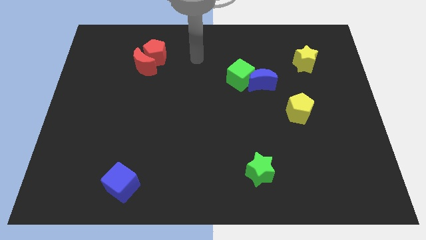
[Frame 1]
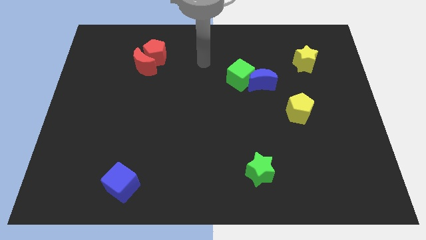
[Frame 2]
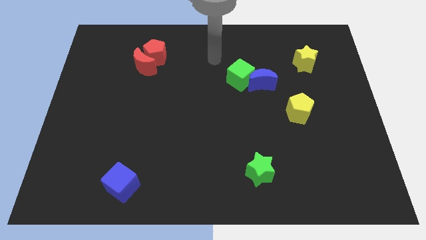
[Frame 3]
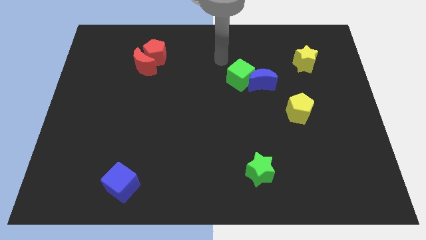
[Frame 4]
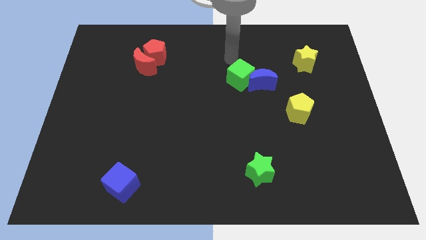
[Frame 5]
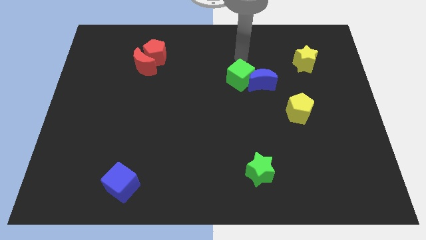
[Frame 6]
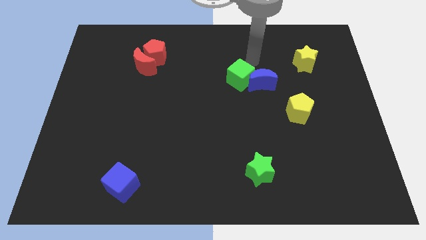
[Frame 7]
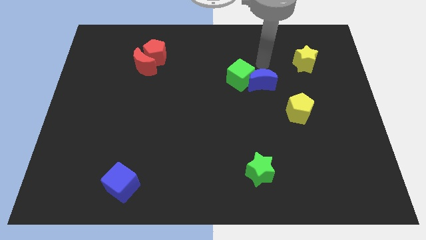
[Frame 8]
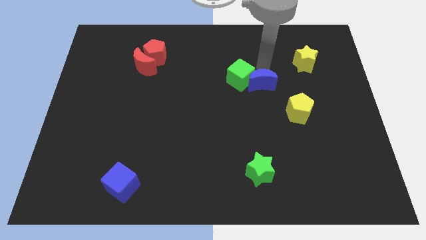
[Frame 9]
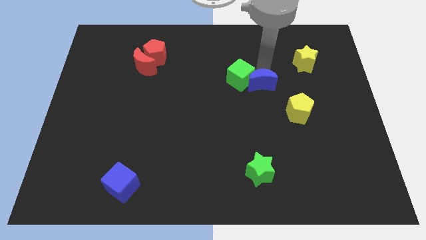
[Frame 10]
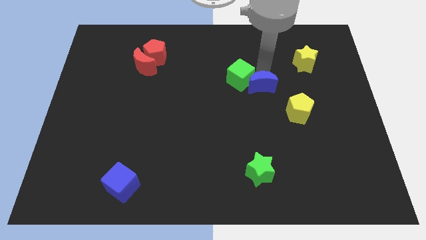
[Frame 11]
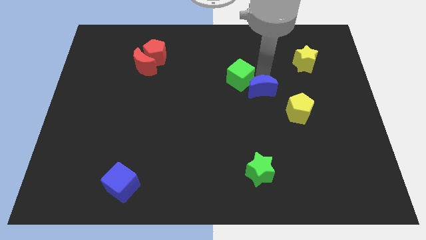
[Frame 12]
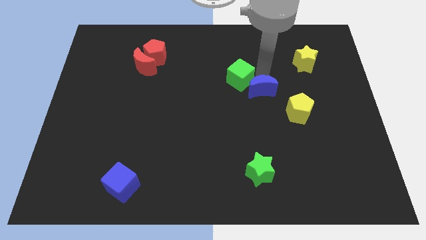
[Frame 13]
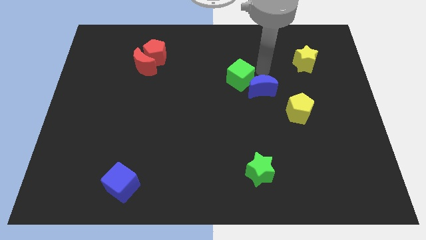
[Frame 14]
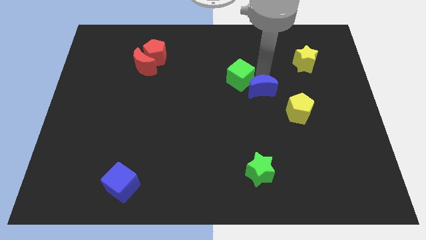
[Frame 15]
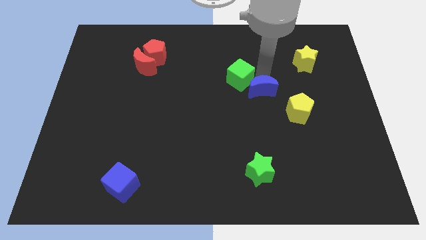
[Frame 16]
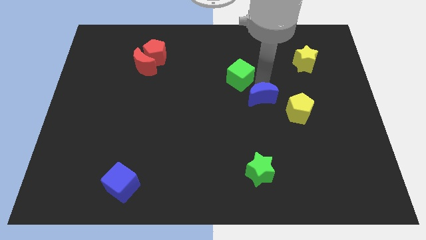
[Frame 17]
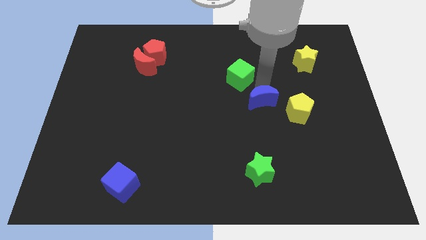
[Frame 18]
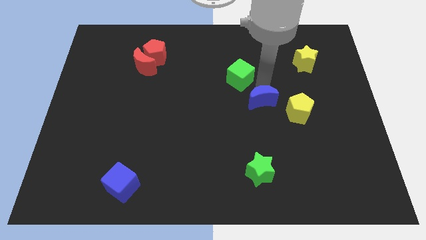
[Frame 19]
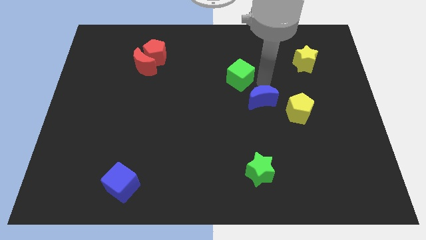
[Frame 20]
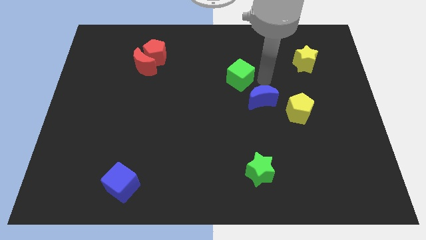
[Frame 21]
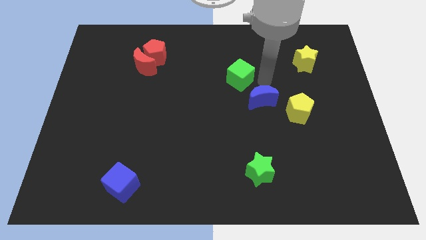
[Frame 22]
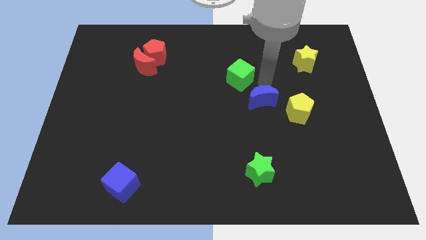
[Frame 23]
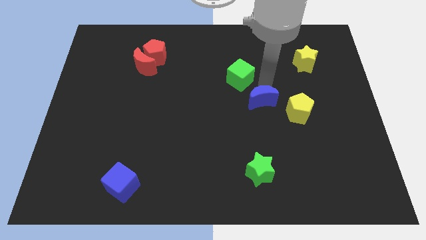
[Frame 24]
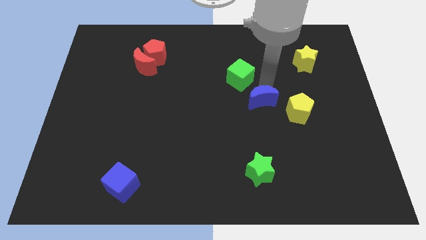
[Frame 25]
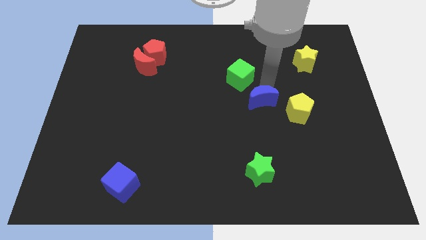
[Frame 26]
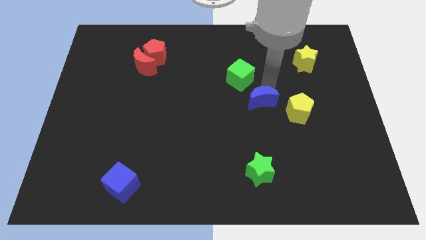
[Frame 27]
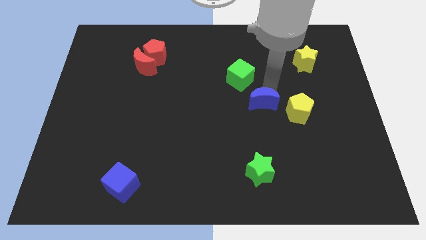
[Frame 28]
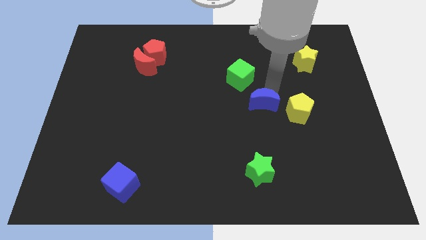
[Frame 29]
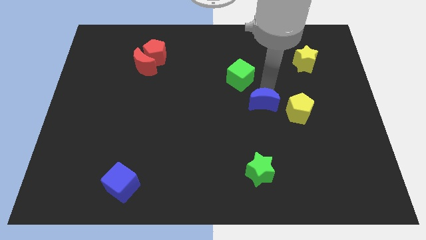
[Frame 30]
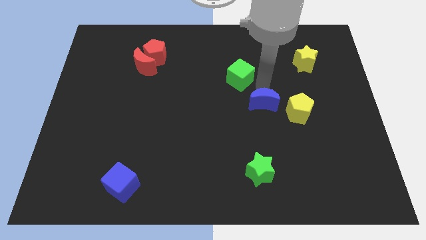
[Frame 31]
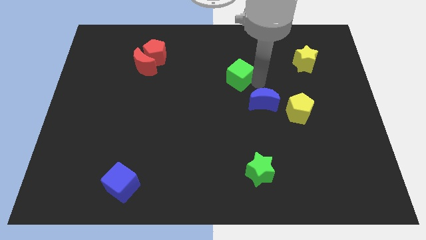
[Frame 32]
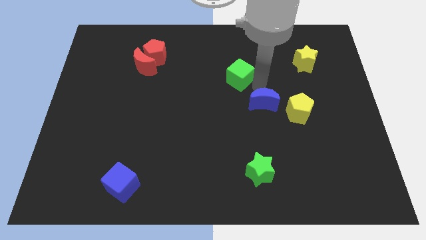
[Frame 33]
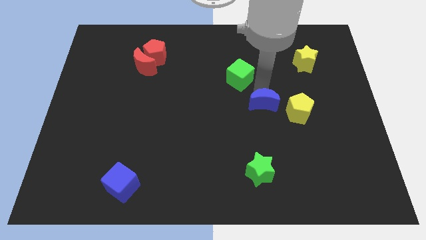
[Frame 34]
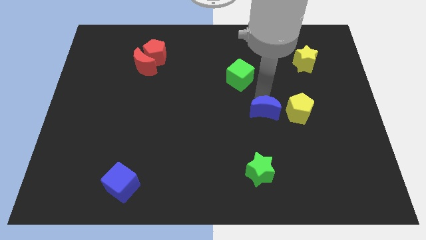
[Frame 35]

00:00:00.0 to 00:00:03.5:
slide the blue moon downwards somewhat

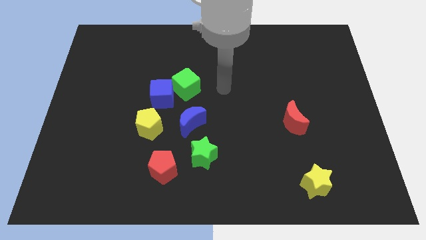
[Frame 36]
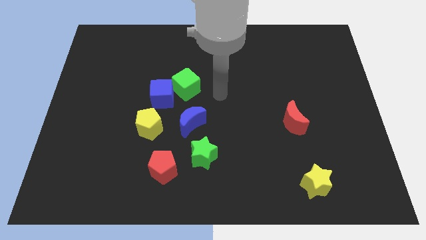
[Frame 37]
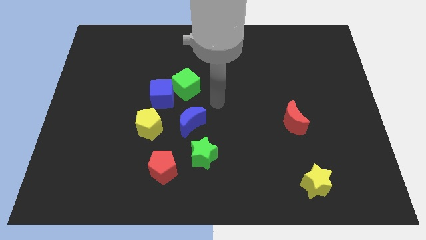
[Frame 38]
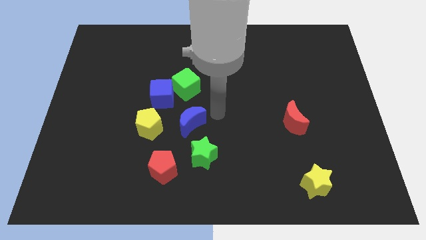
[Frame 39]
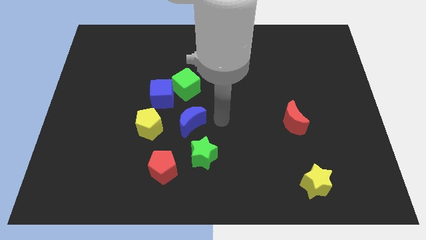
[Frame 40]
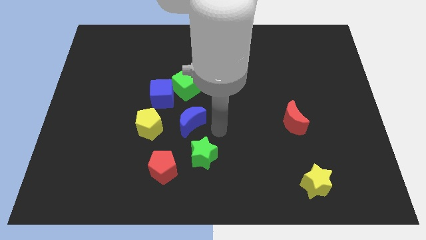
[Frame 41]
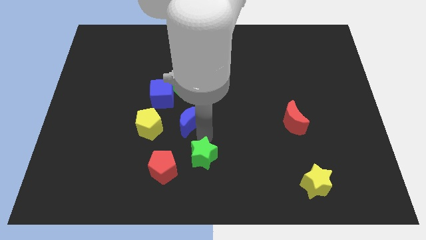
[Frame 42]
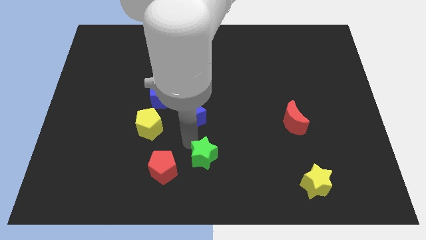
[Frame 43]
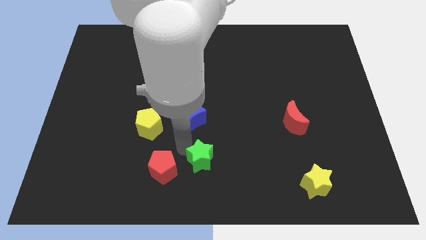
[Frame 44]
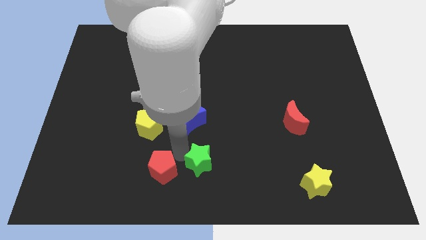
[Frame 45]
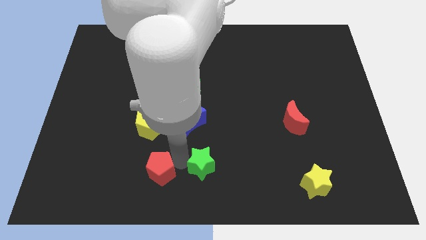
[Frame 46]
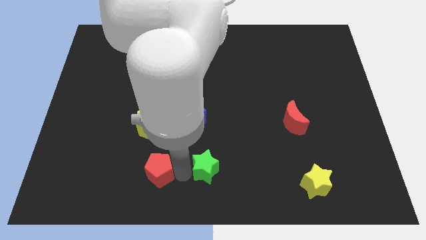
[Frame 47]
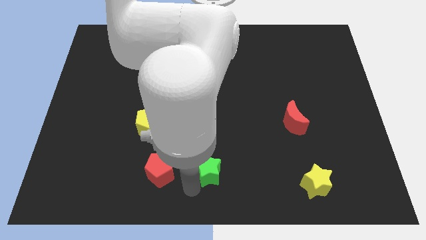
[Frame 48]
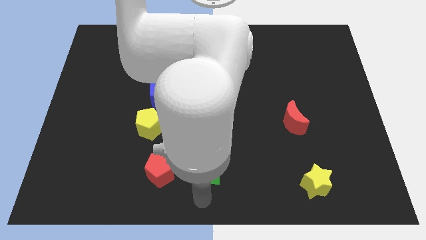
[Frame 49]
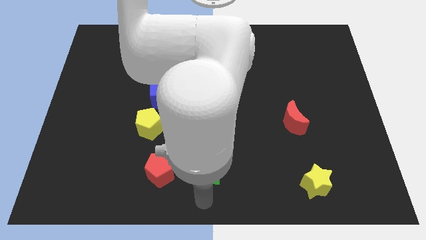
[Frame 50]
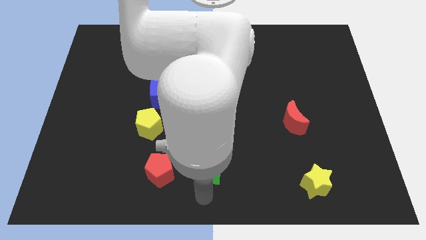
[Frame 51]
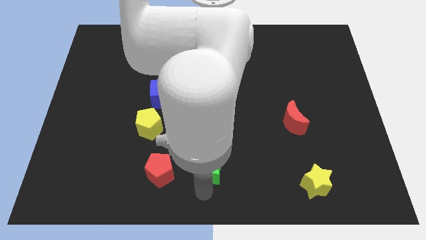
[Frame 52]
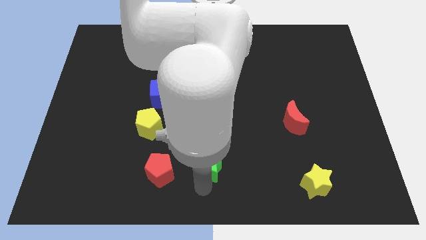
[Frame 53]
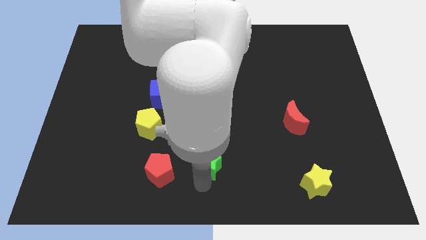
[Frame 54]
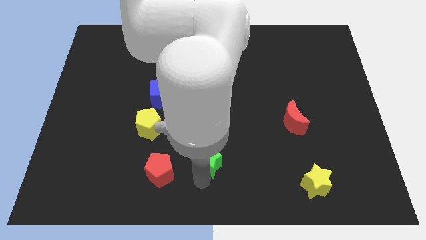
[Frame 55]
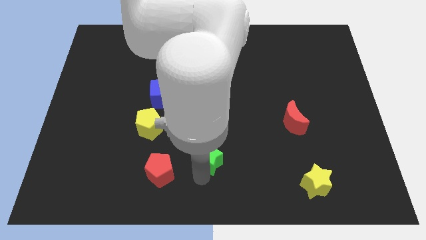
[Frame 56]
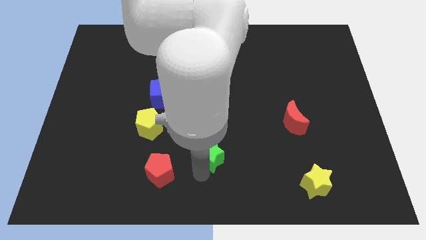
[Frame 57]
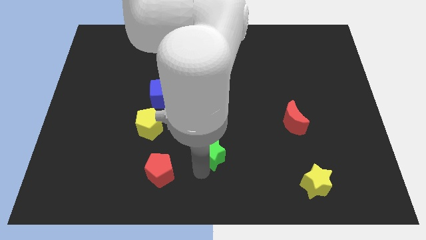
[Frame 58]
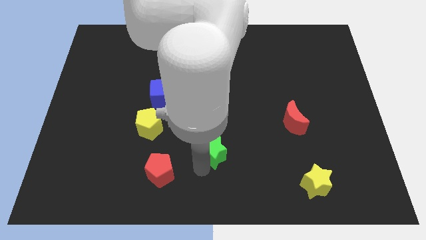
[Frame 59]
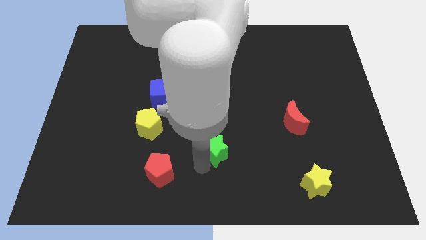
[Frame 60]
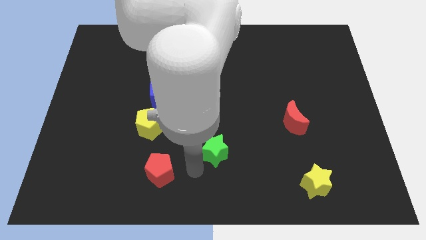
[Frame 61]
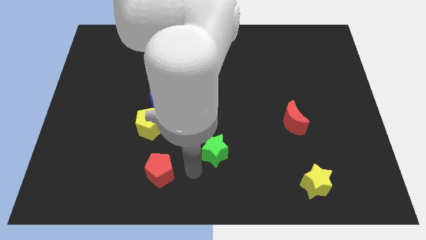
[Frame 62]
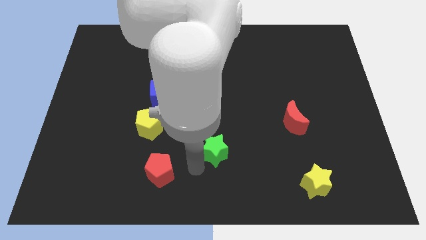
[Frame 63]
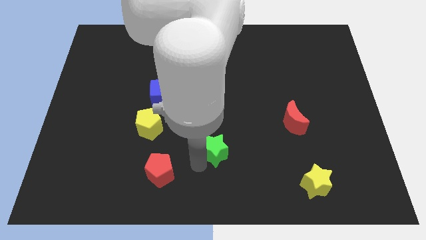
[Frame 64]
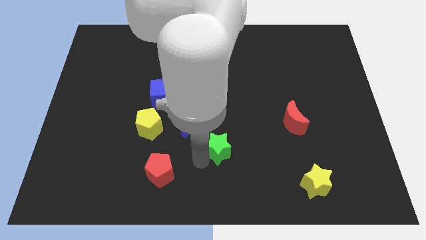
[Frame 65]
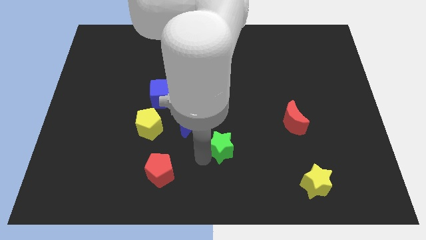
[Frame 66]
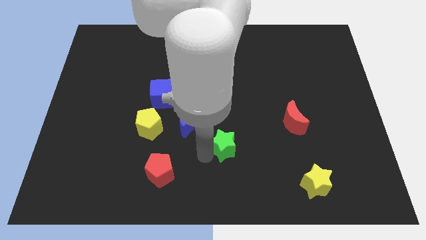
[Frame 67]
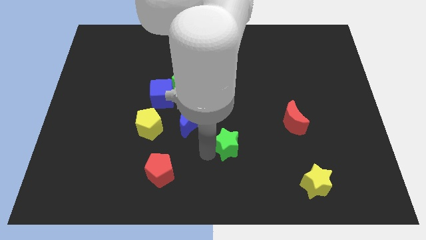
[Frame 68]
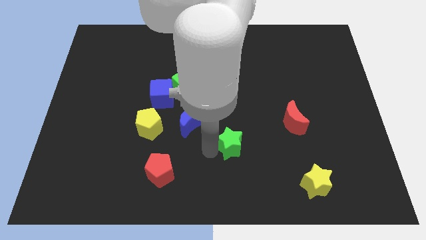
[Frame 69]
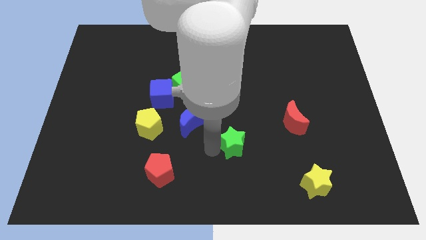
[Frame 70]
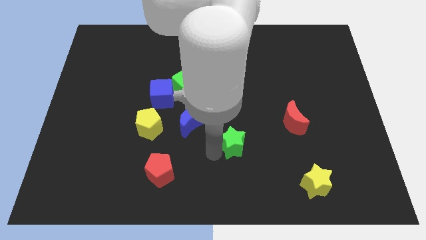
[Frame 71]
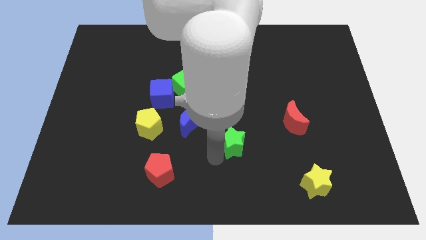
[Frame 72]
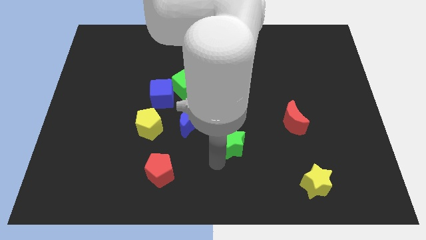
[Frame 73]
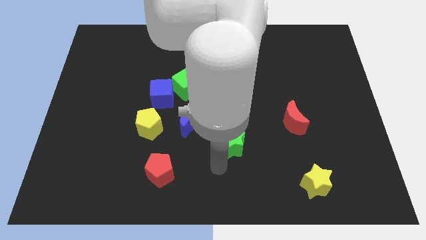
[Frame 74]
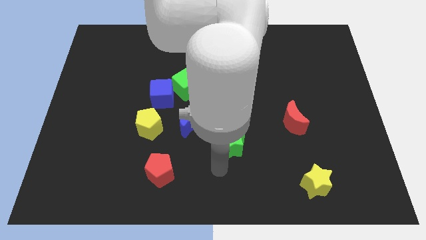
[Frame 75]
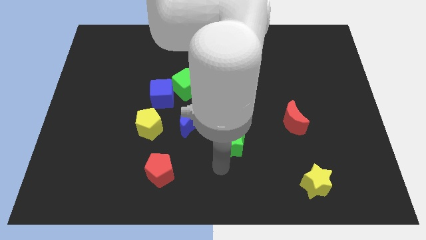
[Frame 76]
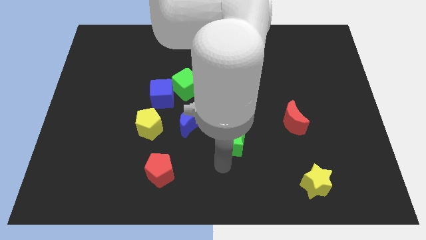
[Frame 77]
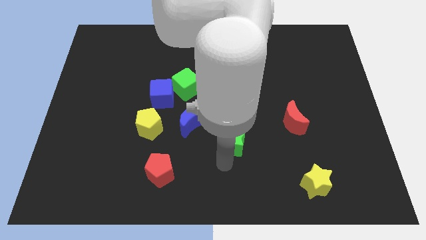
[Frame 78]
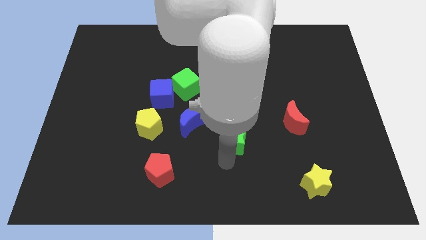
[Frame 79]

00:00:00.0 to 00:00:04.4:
slightly move the green star upwards and then right

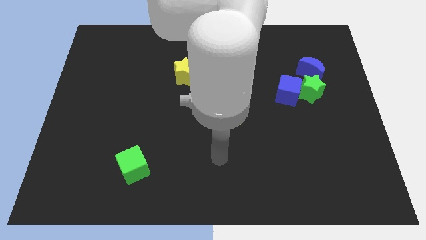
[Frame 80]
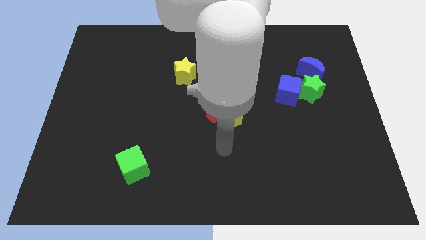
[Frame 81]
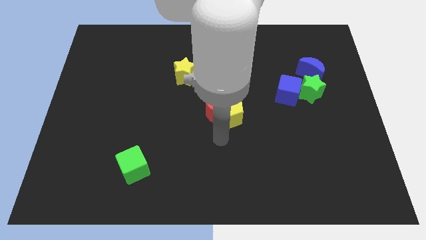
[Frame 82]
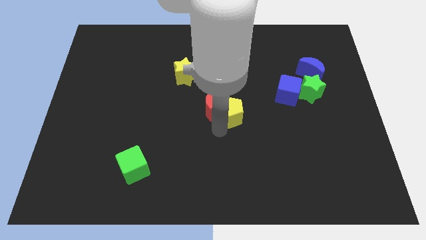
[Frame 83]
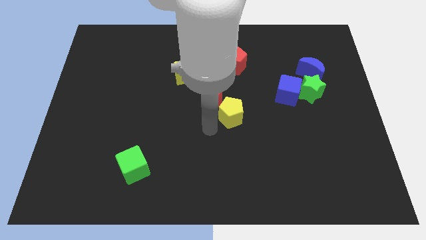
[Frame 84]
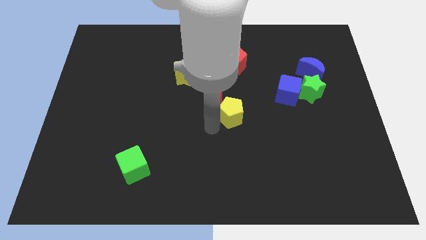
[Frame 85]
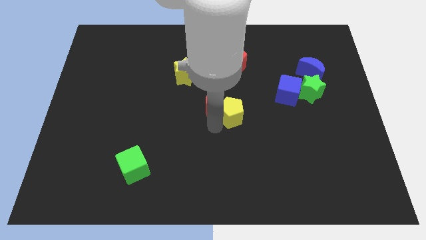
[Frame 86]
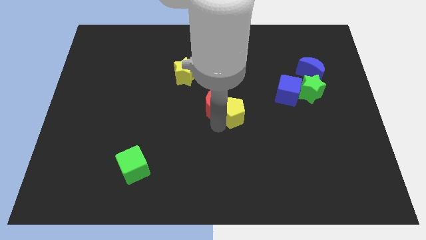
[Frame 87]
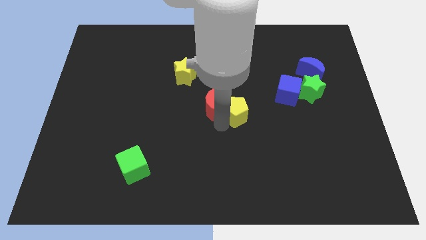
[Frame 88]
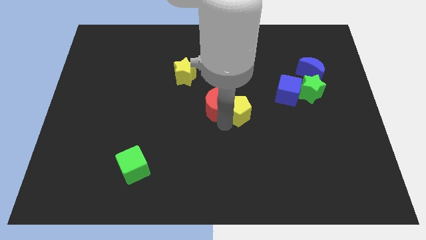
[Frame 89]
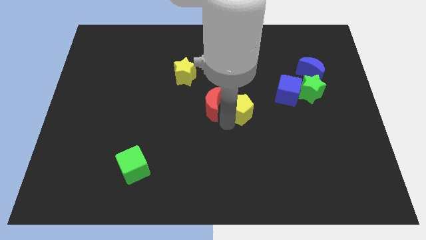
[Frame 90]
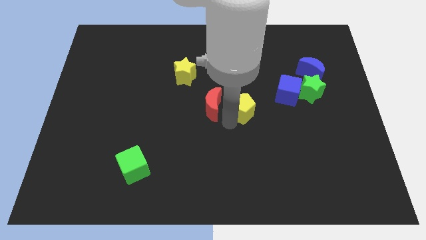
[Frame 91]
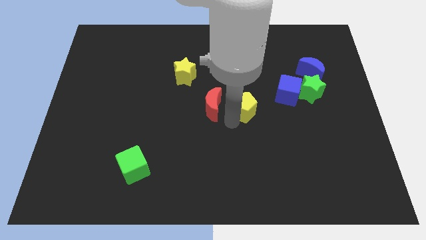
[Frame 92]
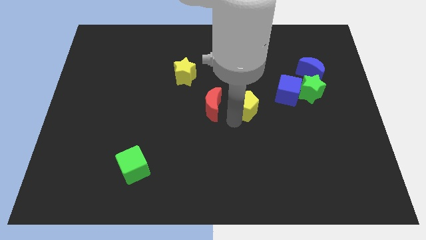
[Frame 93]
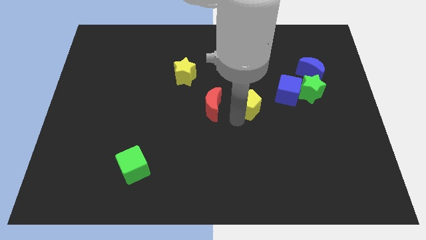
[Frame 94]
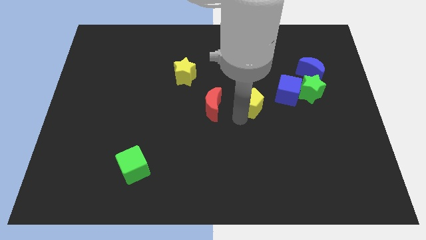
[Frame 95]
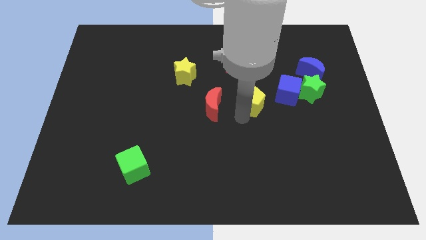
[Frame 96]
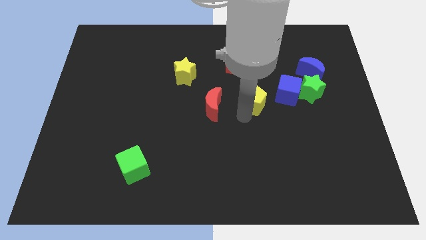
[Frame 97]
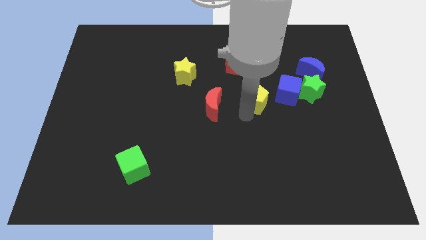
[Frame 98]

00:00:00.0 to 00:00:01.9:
slightly move the yellow pentagon upwards and to the right
